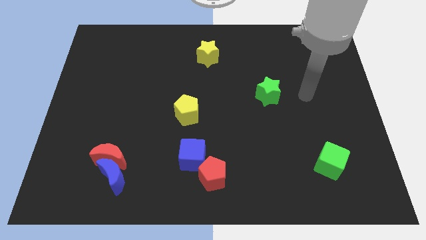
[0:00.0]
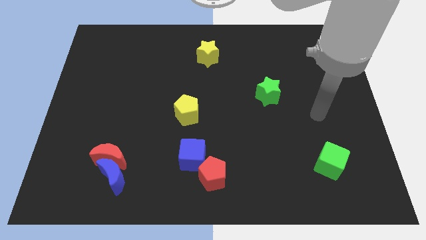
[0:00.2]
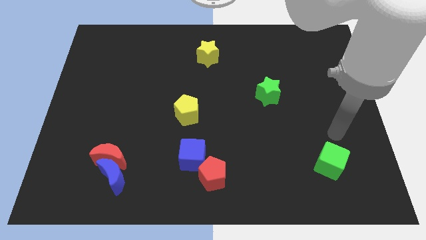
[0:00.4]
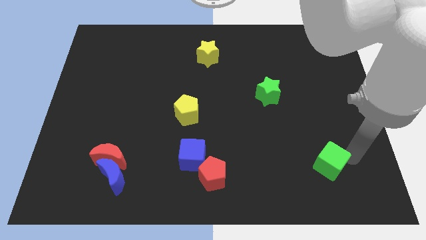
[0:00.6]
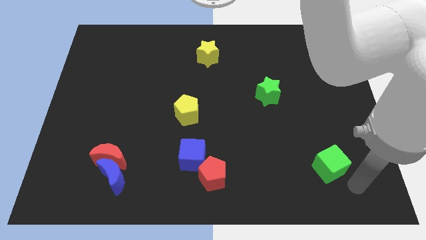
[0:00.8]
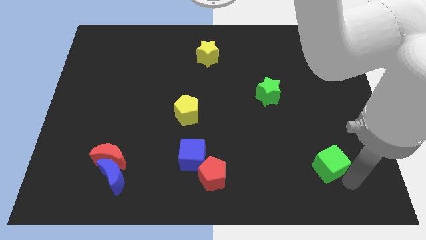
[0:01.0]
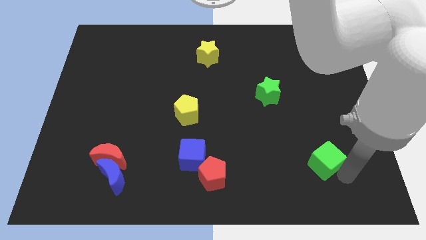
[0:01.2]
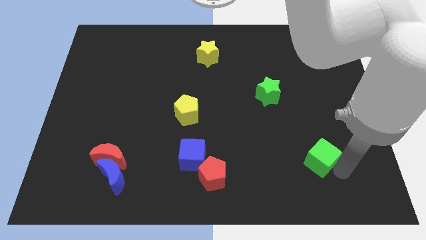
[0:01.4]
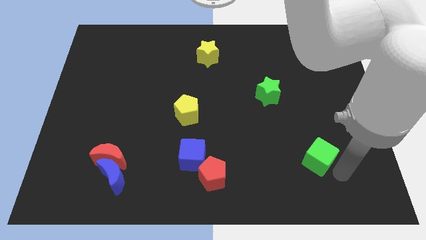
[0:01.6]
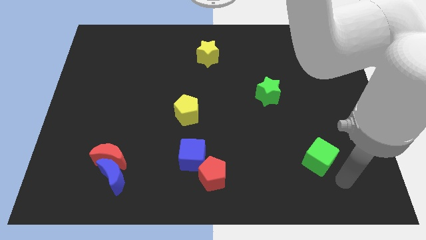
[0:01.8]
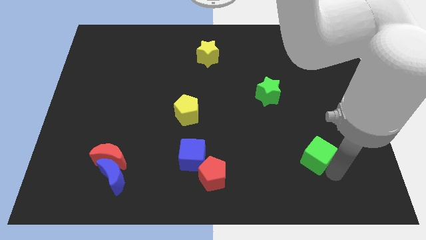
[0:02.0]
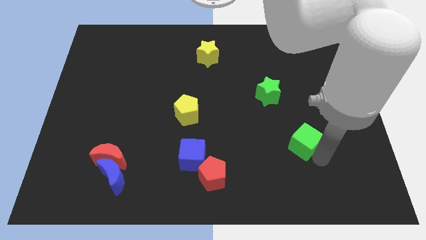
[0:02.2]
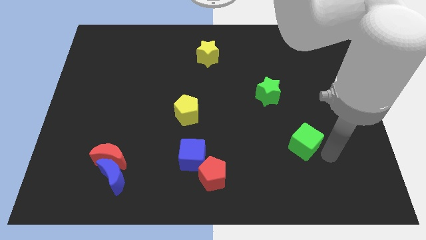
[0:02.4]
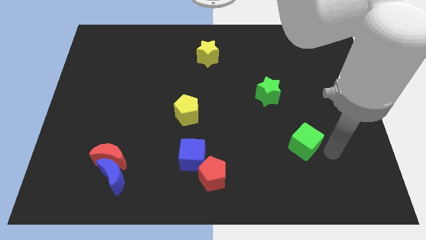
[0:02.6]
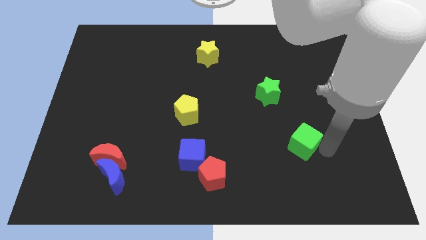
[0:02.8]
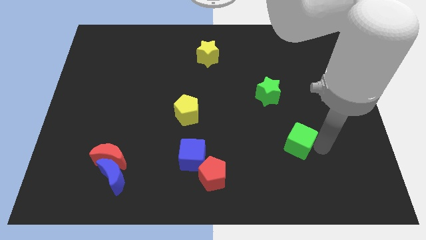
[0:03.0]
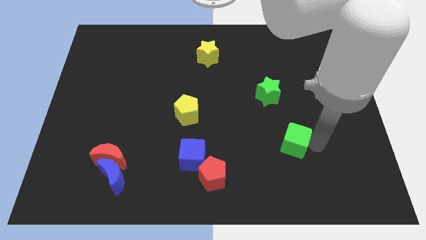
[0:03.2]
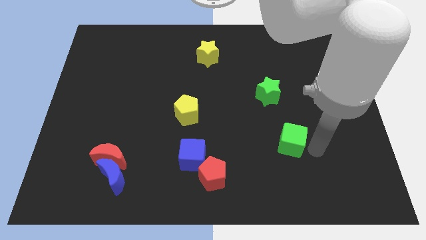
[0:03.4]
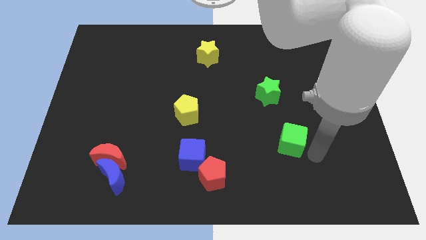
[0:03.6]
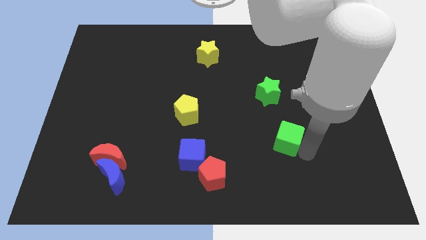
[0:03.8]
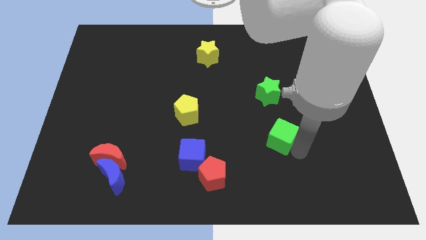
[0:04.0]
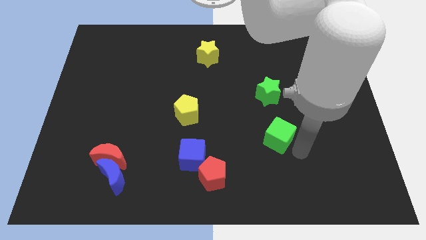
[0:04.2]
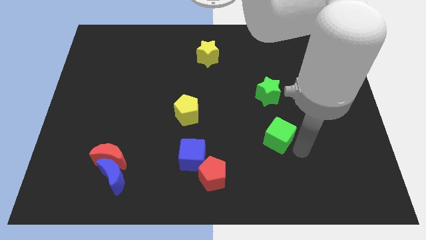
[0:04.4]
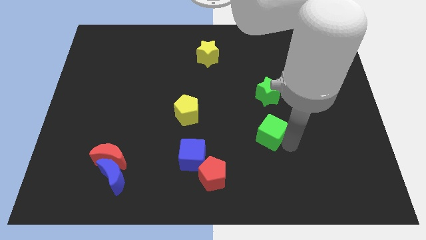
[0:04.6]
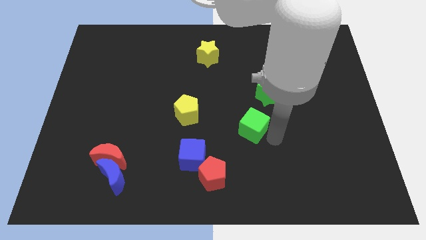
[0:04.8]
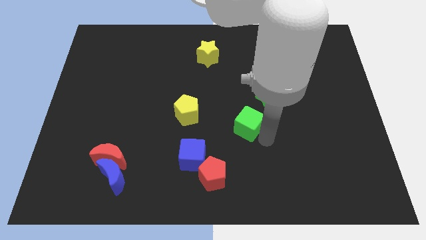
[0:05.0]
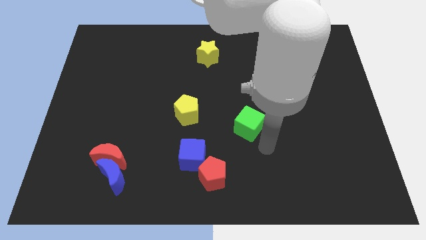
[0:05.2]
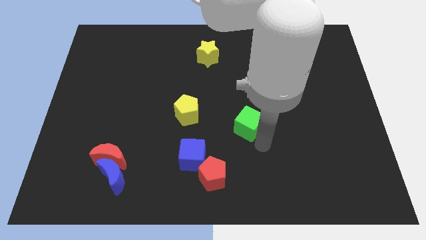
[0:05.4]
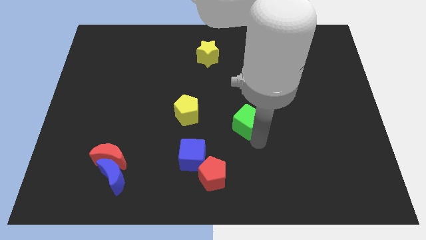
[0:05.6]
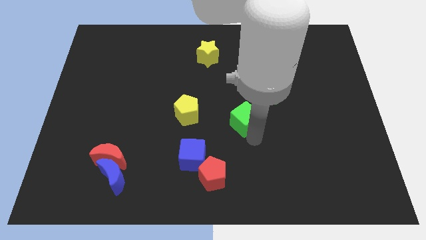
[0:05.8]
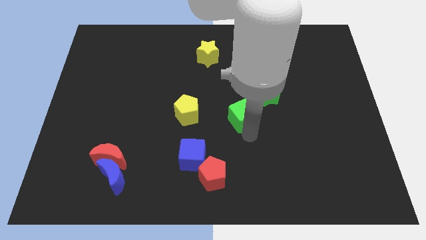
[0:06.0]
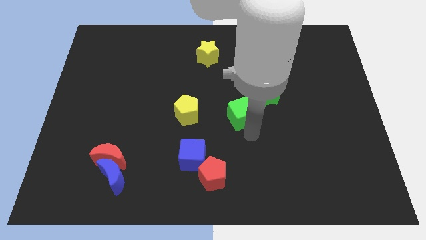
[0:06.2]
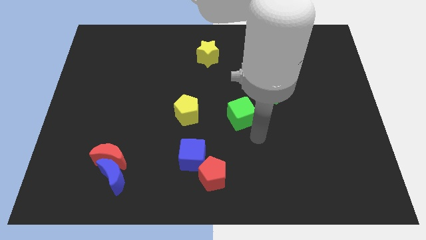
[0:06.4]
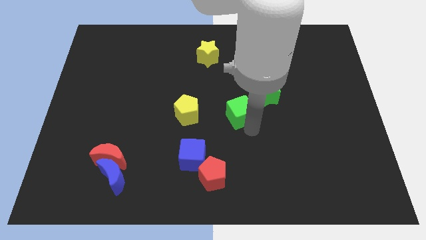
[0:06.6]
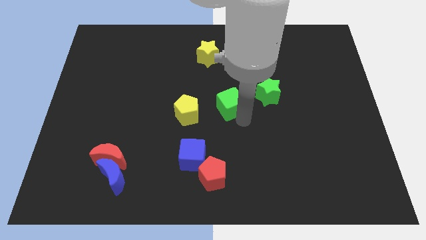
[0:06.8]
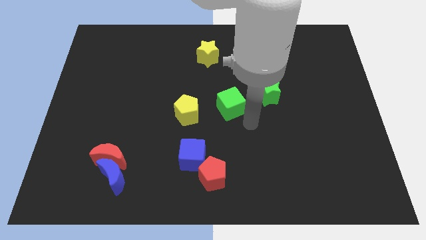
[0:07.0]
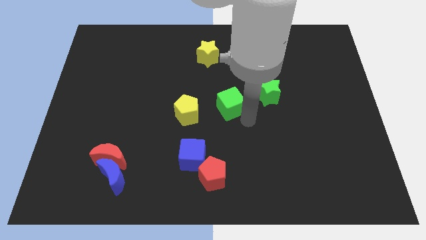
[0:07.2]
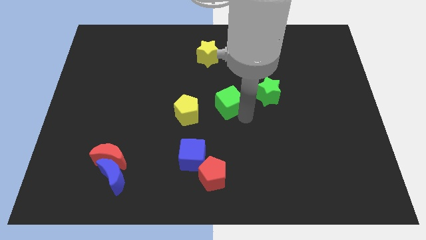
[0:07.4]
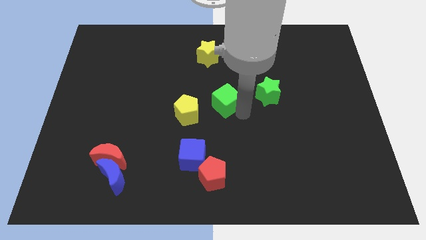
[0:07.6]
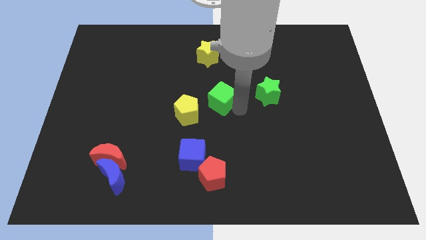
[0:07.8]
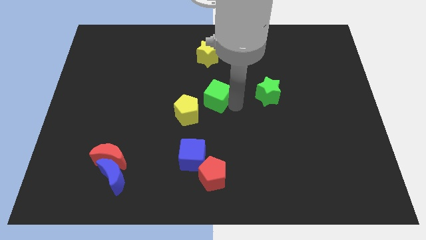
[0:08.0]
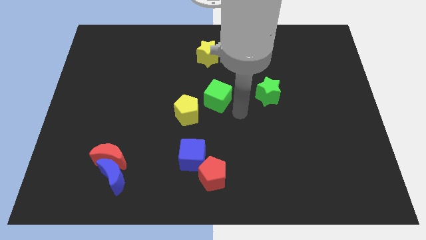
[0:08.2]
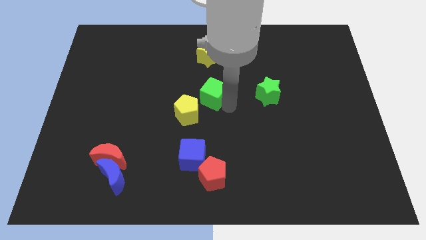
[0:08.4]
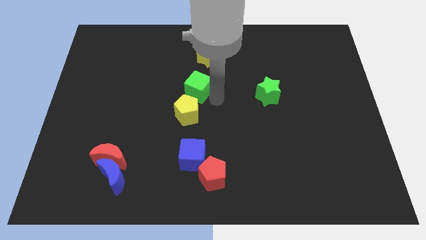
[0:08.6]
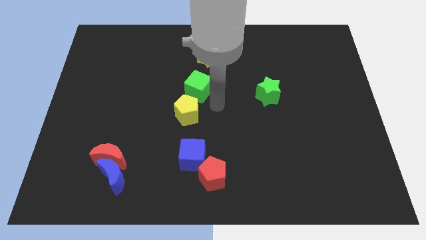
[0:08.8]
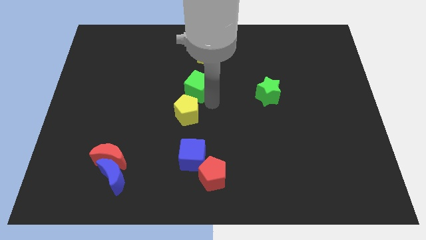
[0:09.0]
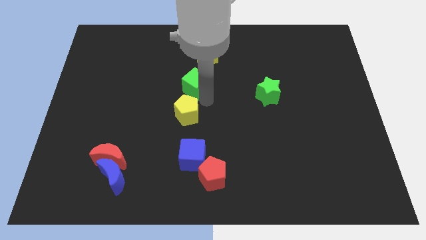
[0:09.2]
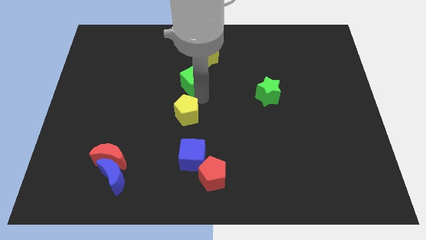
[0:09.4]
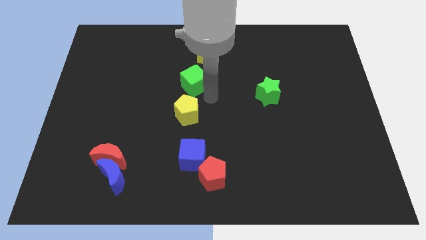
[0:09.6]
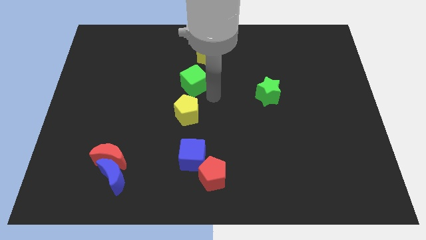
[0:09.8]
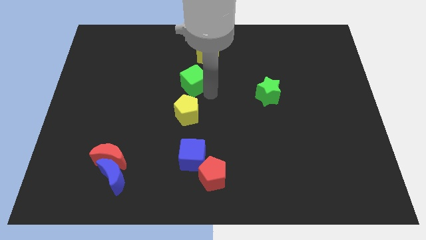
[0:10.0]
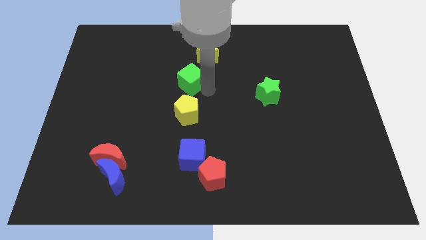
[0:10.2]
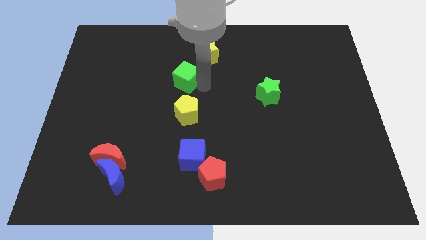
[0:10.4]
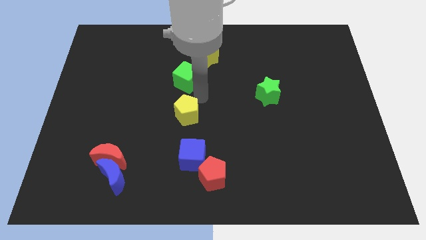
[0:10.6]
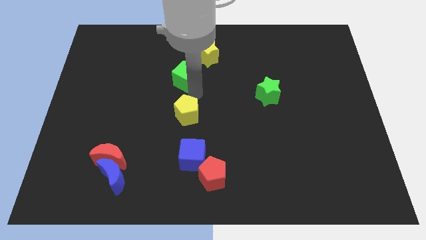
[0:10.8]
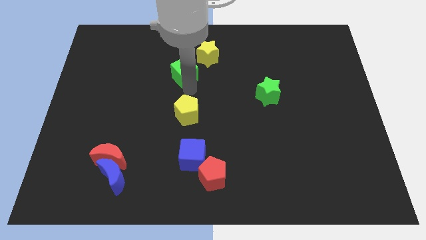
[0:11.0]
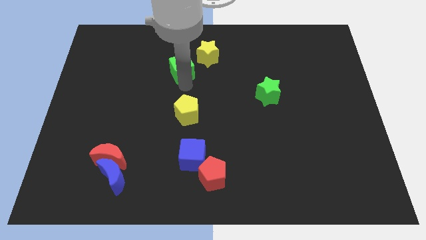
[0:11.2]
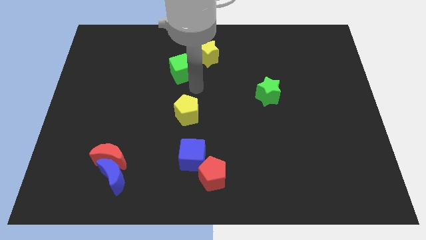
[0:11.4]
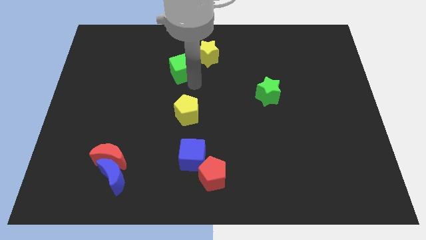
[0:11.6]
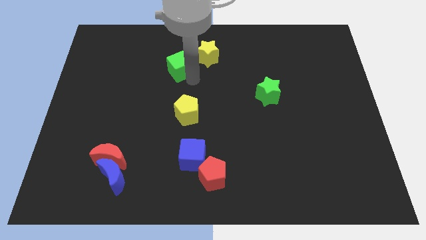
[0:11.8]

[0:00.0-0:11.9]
push the green cube to the left side of the yellow star

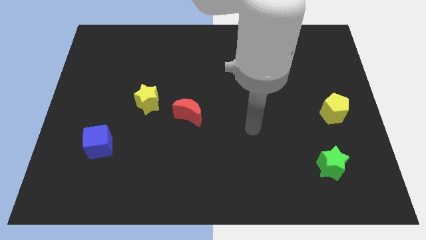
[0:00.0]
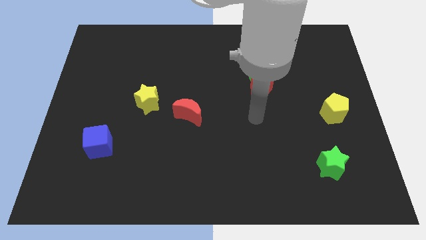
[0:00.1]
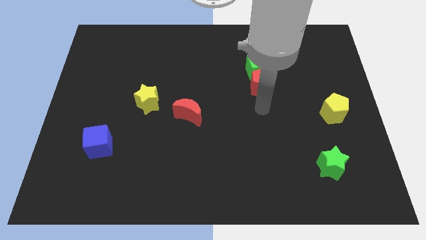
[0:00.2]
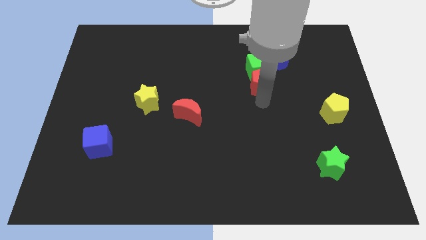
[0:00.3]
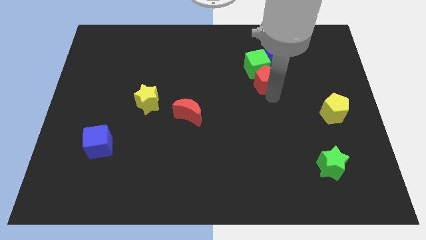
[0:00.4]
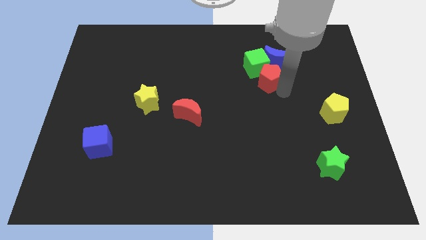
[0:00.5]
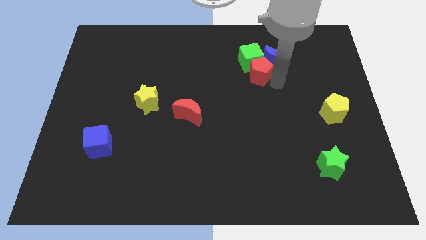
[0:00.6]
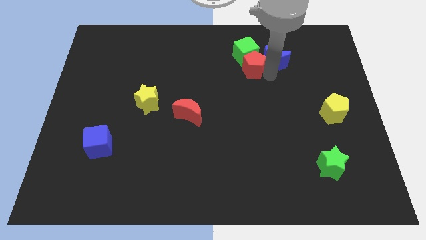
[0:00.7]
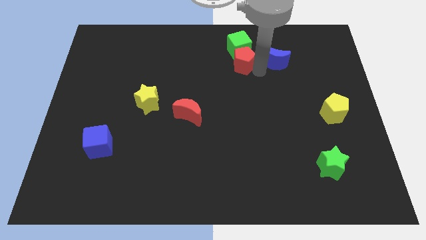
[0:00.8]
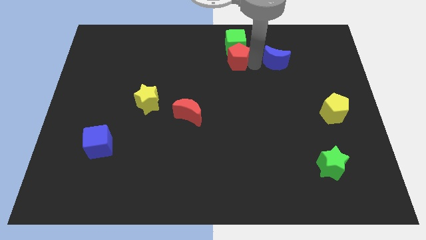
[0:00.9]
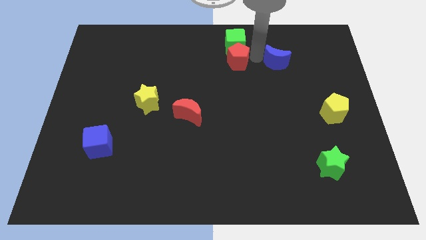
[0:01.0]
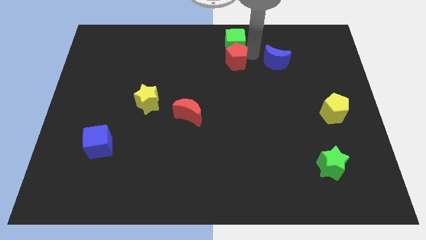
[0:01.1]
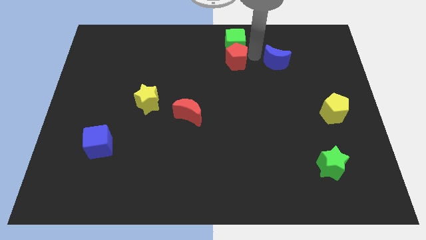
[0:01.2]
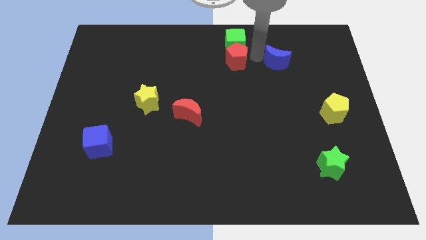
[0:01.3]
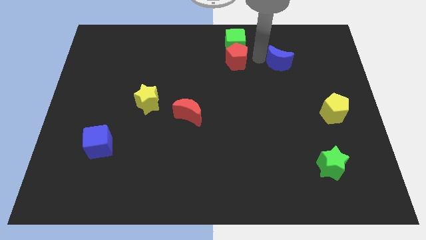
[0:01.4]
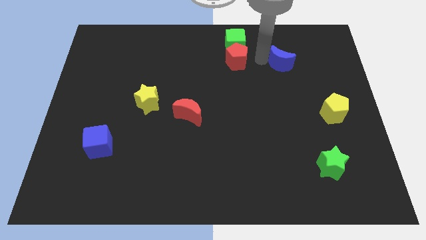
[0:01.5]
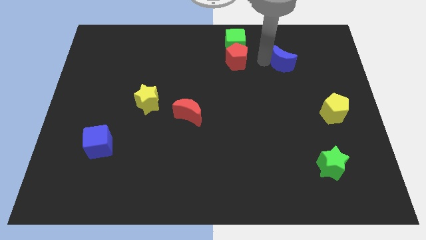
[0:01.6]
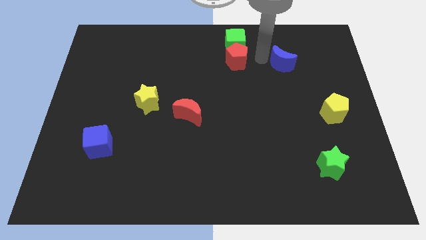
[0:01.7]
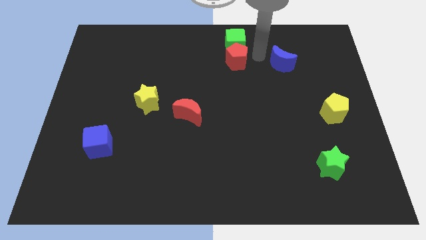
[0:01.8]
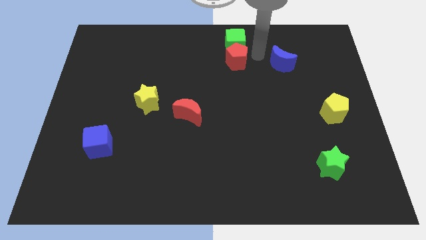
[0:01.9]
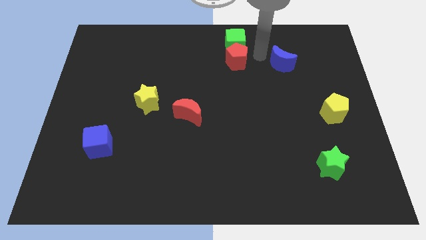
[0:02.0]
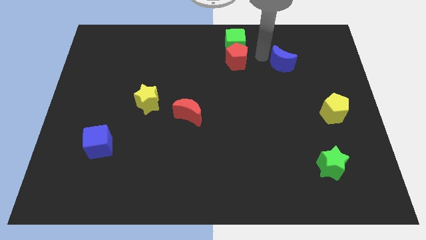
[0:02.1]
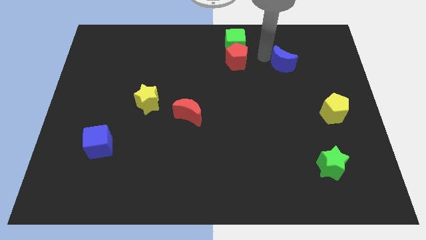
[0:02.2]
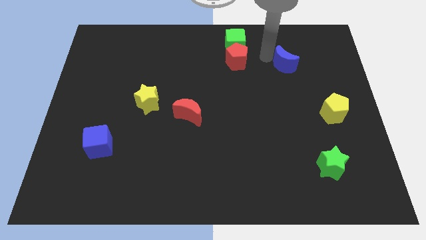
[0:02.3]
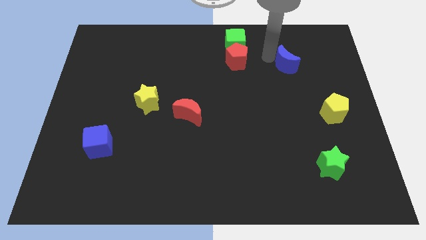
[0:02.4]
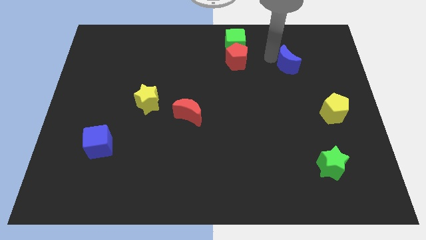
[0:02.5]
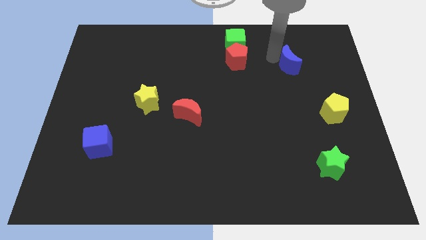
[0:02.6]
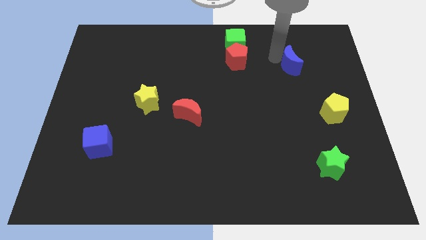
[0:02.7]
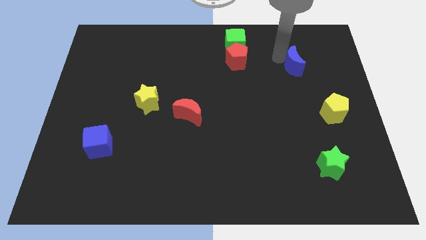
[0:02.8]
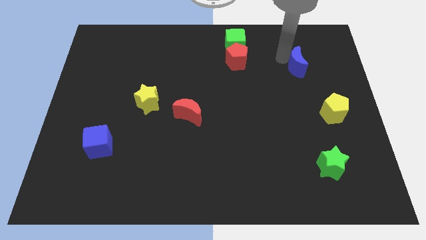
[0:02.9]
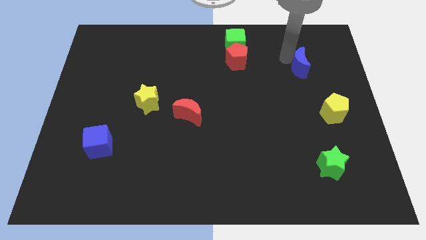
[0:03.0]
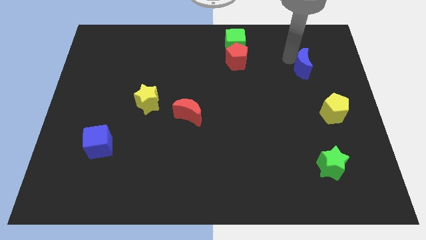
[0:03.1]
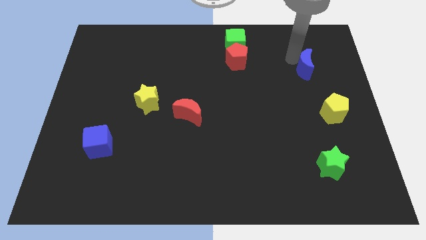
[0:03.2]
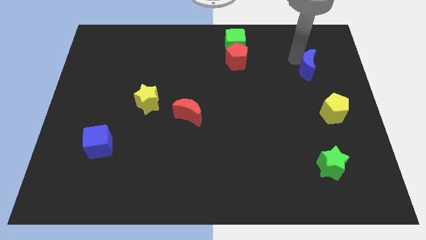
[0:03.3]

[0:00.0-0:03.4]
slide the blue moon to the top side of the yellow pentagon
